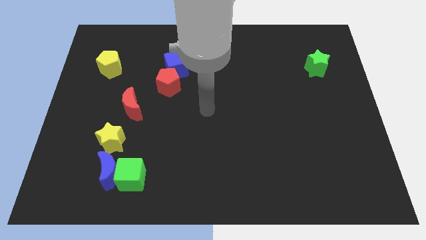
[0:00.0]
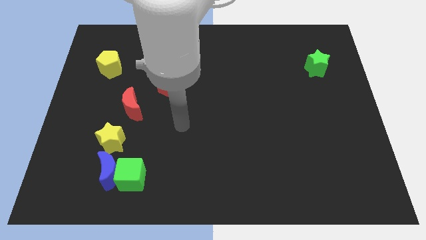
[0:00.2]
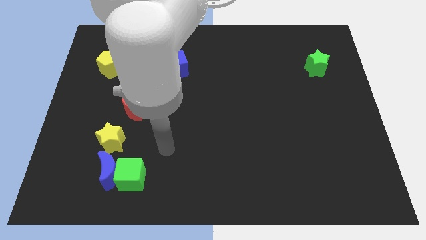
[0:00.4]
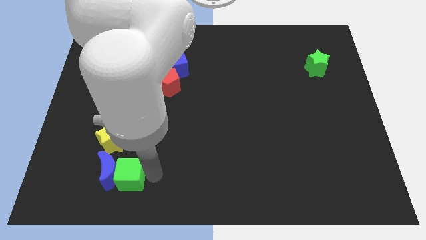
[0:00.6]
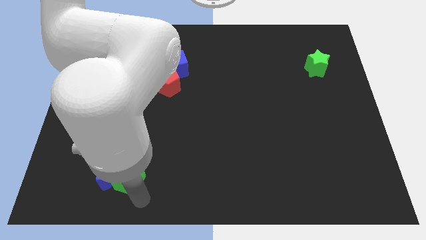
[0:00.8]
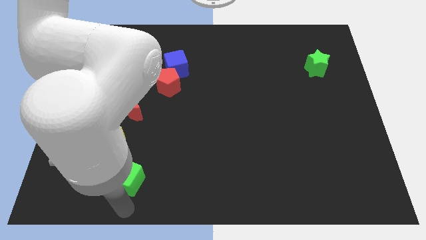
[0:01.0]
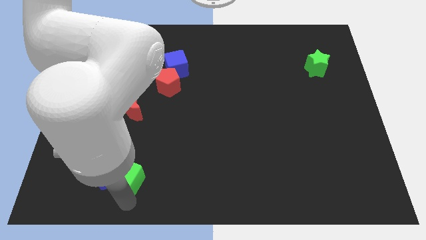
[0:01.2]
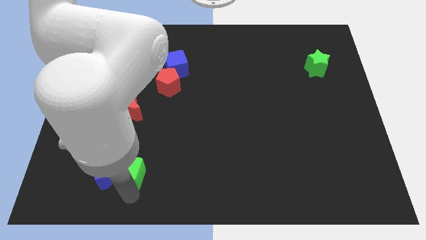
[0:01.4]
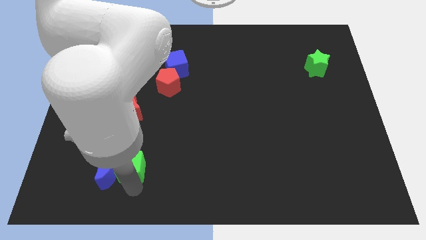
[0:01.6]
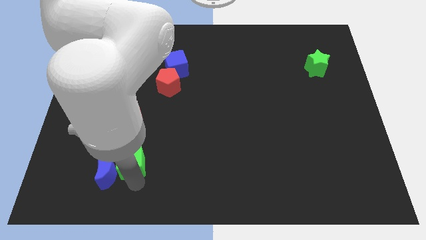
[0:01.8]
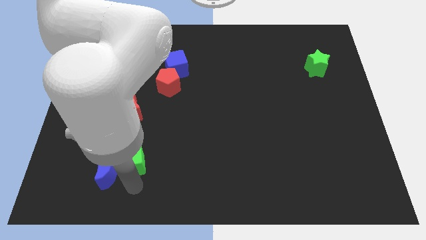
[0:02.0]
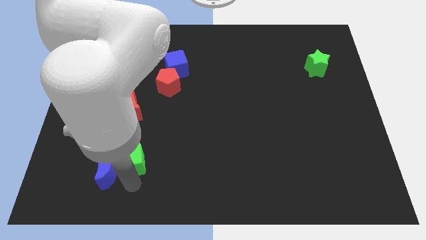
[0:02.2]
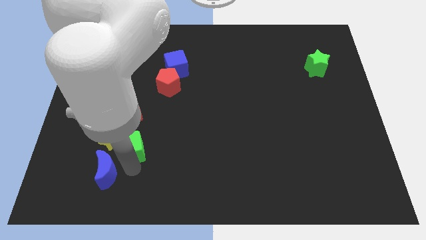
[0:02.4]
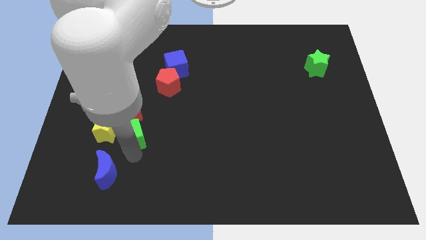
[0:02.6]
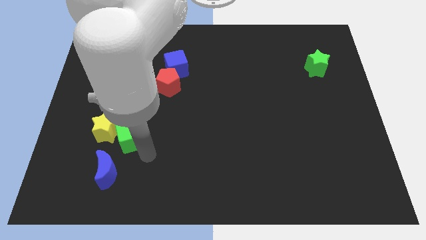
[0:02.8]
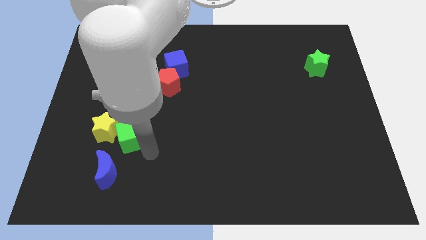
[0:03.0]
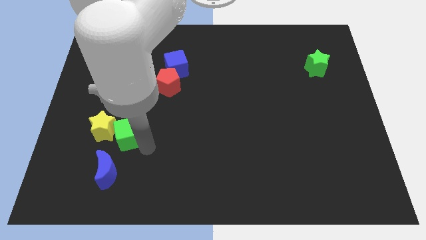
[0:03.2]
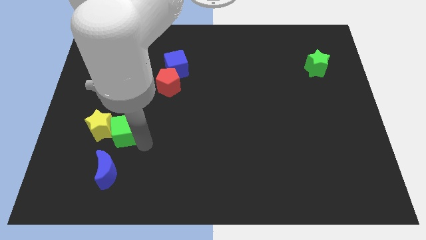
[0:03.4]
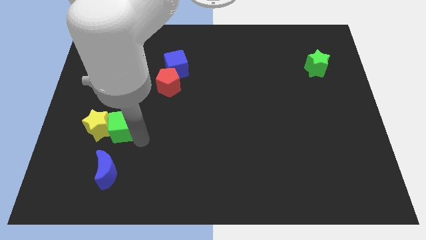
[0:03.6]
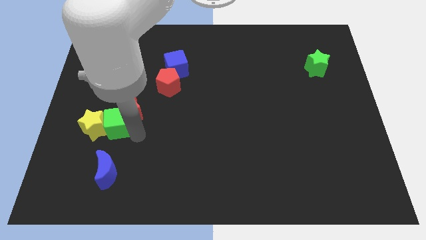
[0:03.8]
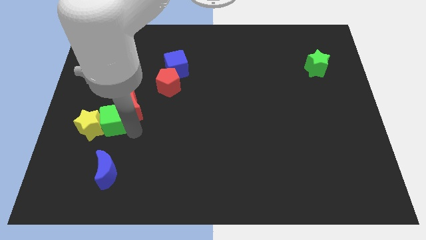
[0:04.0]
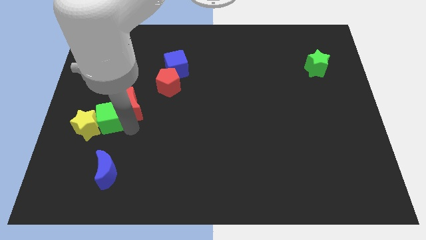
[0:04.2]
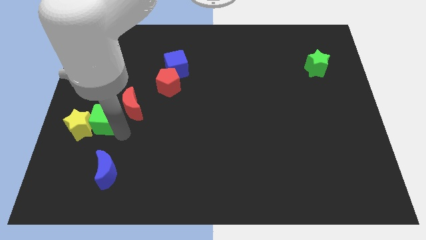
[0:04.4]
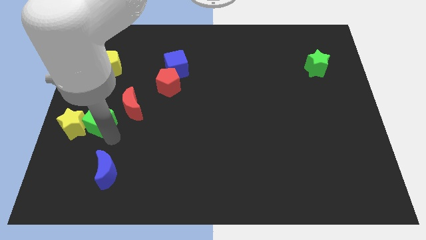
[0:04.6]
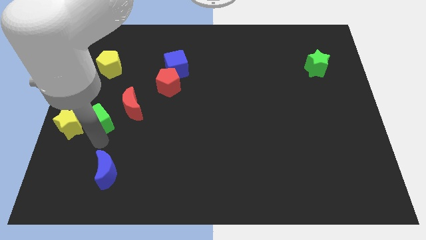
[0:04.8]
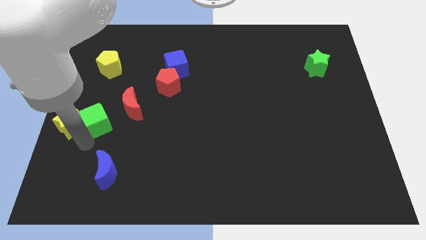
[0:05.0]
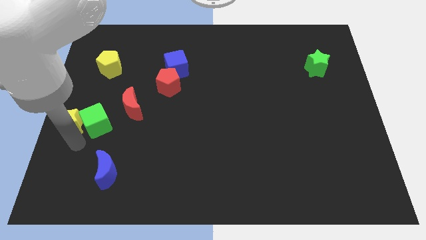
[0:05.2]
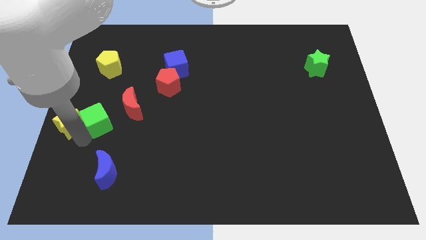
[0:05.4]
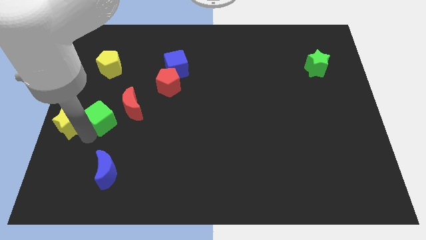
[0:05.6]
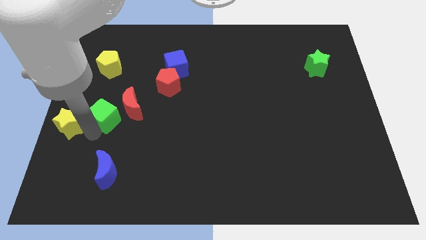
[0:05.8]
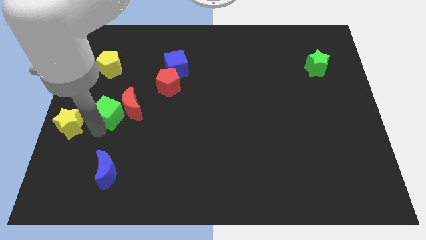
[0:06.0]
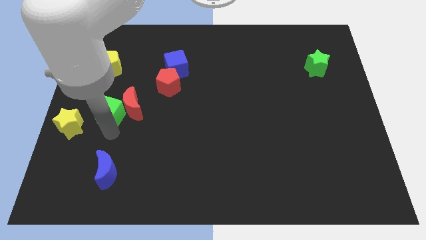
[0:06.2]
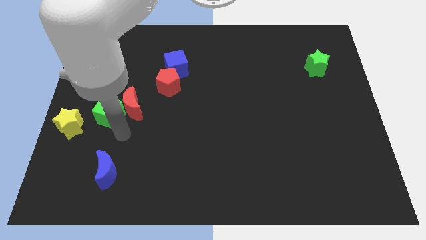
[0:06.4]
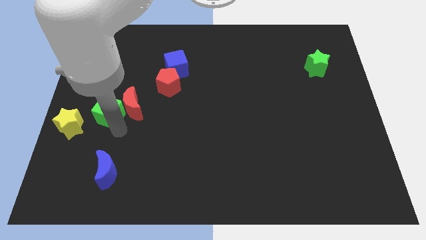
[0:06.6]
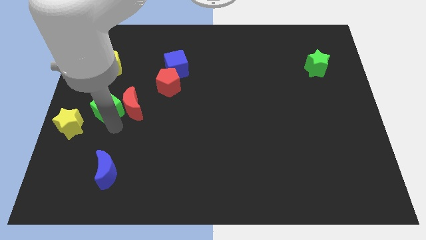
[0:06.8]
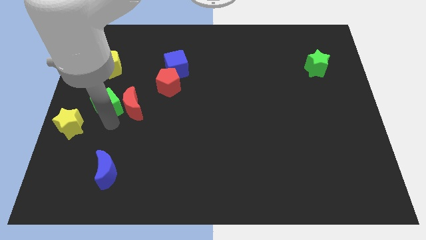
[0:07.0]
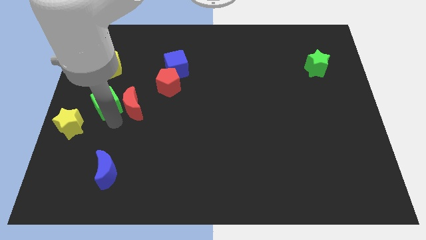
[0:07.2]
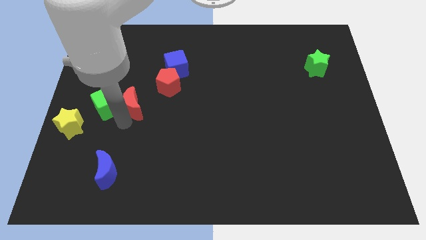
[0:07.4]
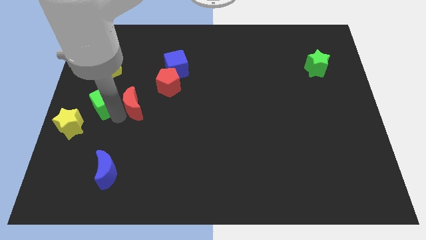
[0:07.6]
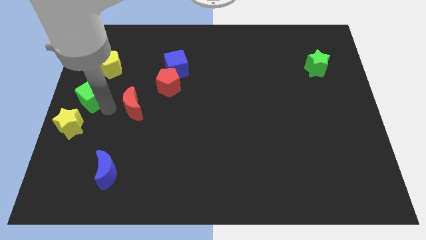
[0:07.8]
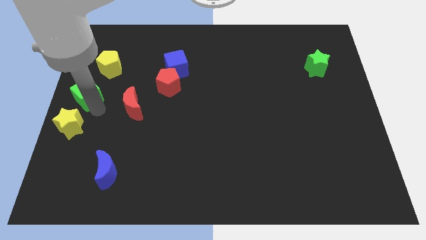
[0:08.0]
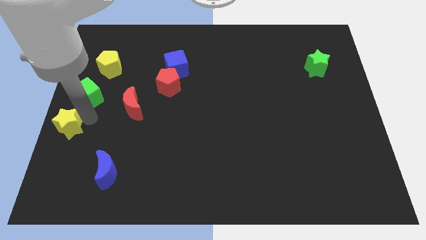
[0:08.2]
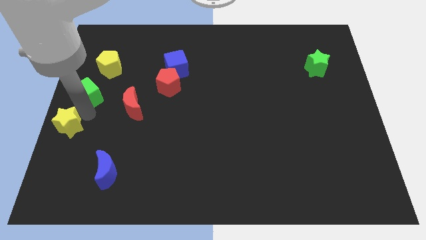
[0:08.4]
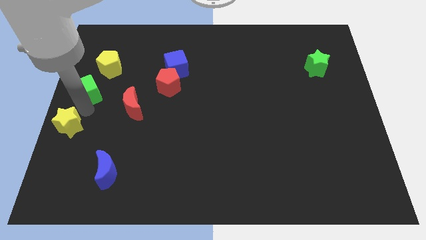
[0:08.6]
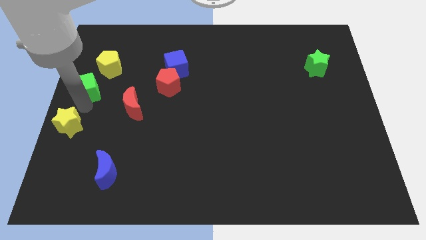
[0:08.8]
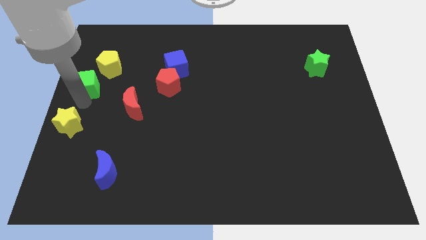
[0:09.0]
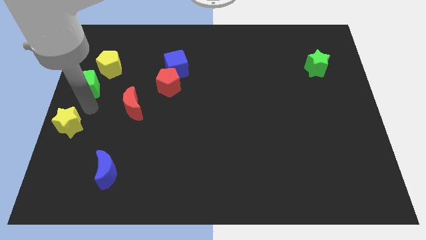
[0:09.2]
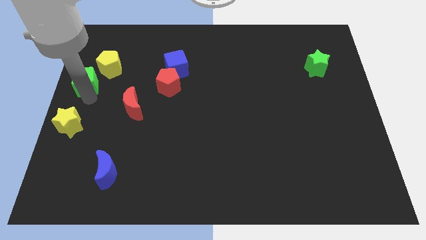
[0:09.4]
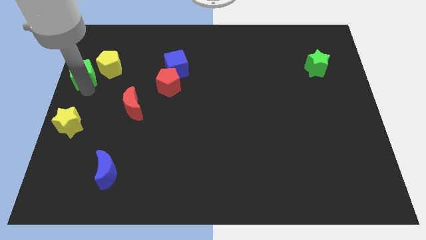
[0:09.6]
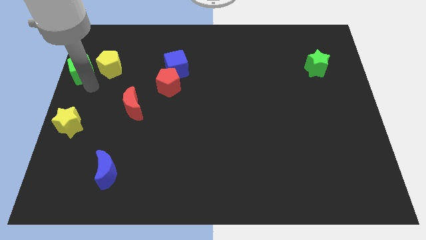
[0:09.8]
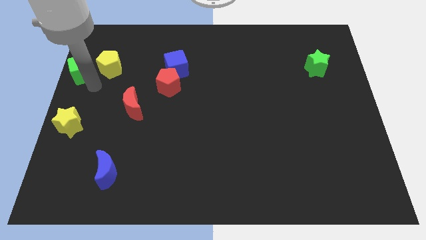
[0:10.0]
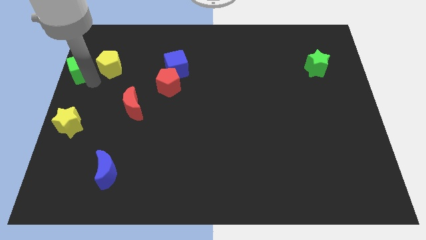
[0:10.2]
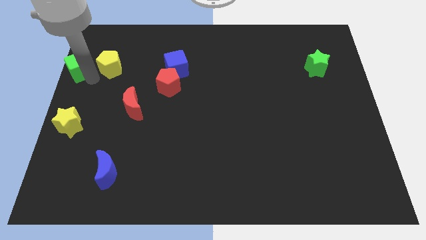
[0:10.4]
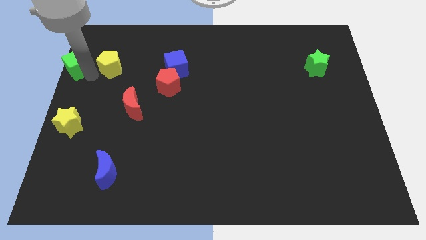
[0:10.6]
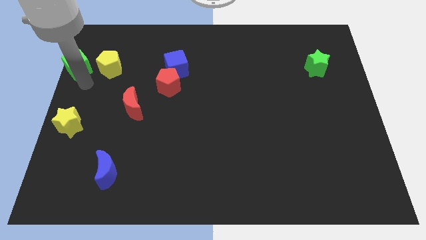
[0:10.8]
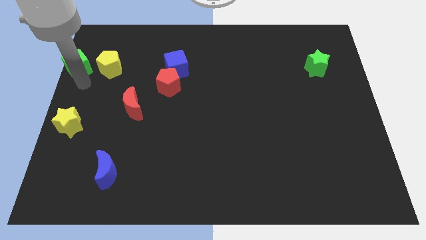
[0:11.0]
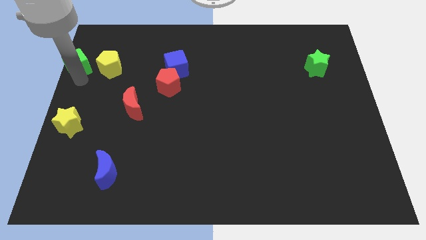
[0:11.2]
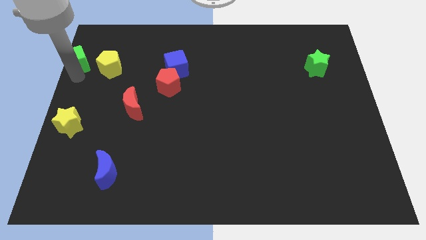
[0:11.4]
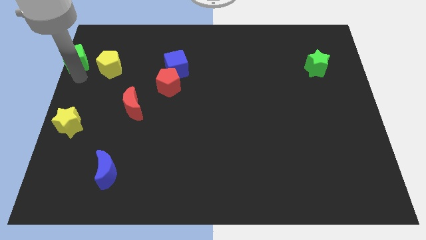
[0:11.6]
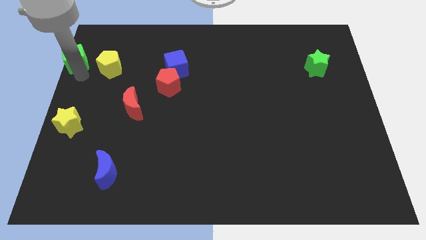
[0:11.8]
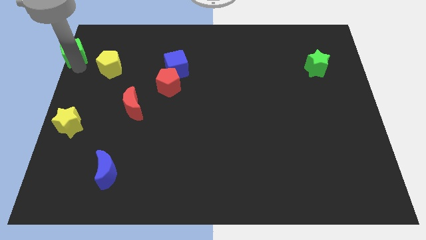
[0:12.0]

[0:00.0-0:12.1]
slide the green cube to the top left
